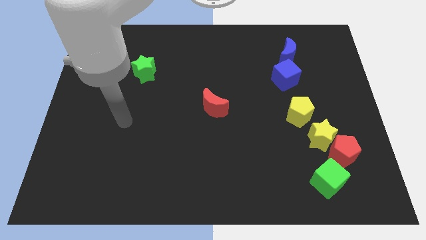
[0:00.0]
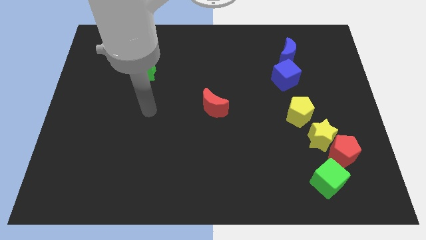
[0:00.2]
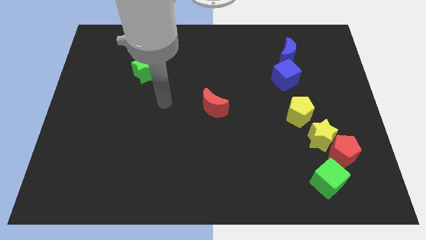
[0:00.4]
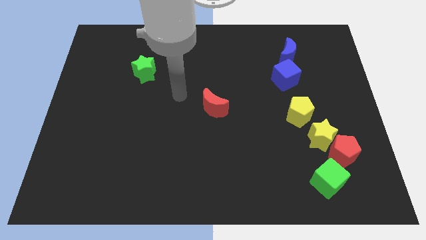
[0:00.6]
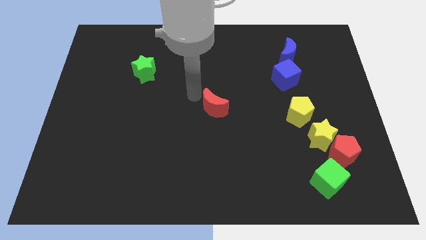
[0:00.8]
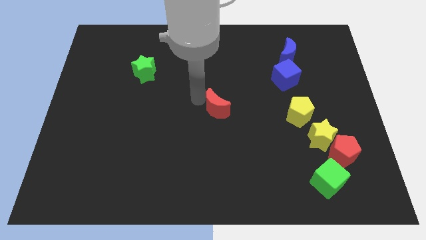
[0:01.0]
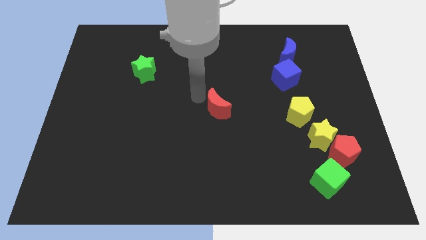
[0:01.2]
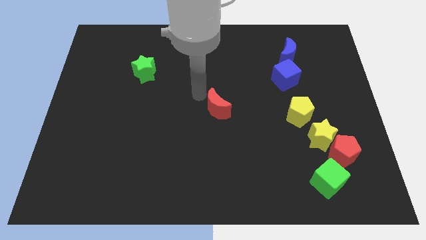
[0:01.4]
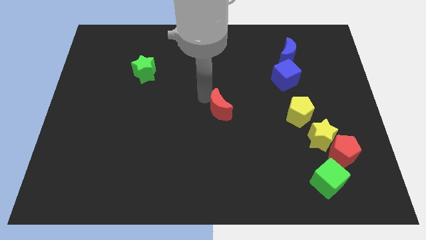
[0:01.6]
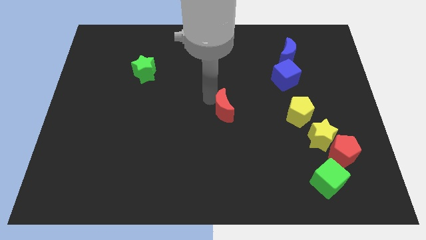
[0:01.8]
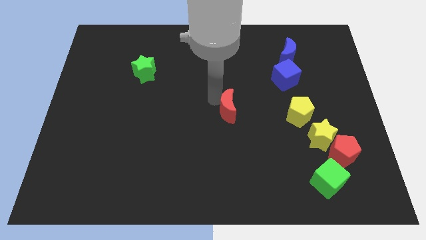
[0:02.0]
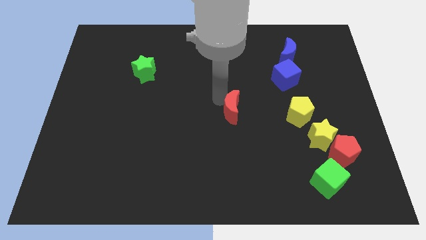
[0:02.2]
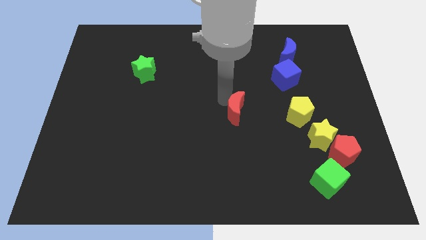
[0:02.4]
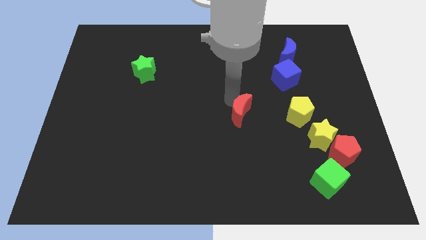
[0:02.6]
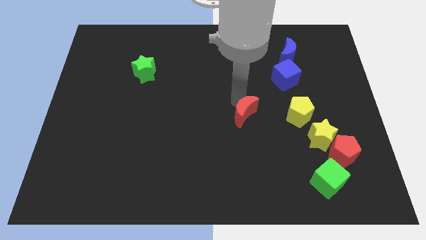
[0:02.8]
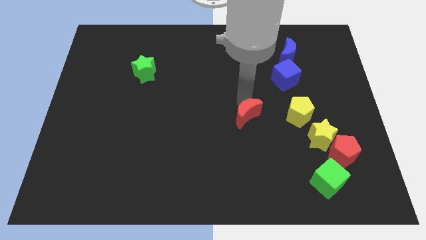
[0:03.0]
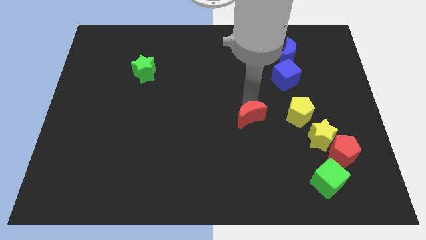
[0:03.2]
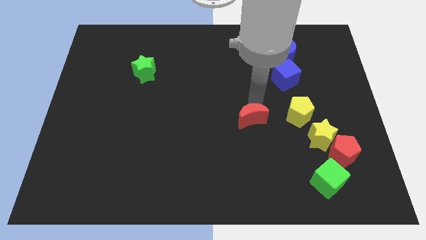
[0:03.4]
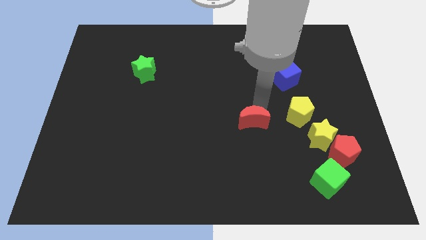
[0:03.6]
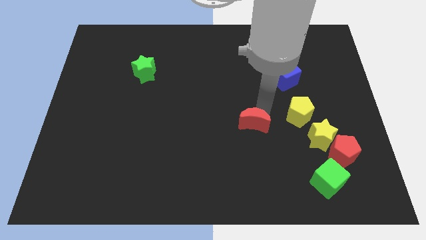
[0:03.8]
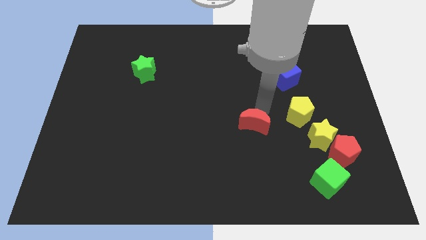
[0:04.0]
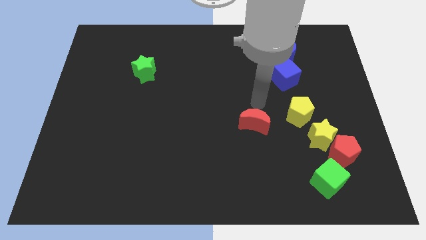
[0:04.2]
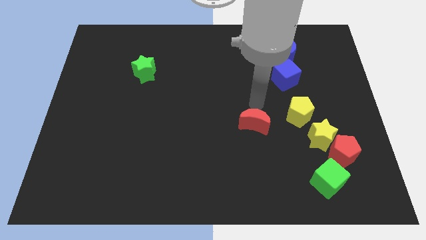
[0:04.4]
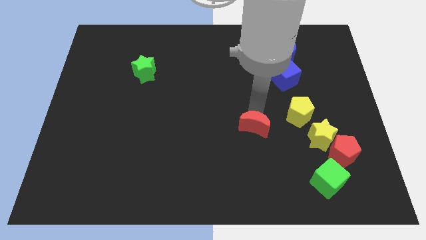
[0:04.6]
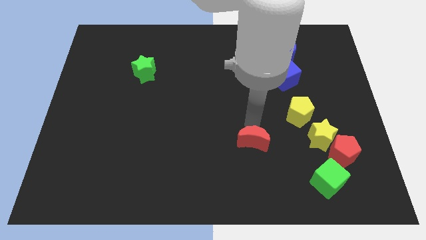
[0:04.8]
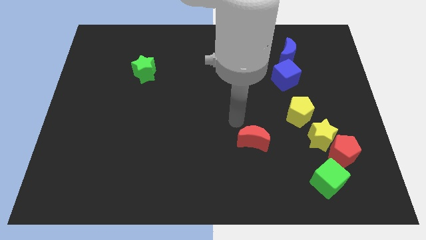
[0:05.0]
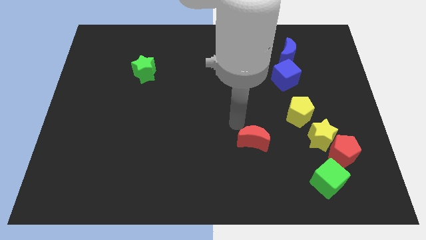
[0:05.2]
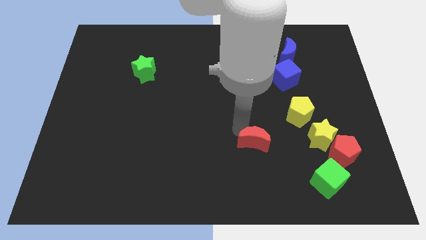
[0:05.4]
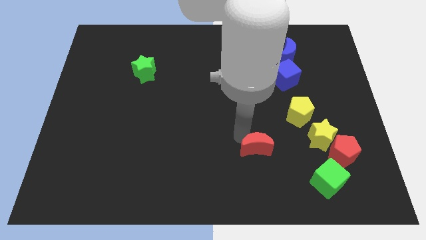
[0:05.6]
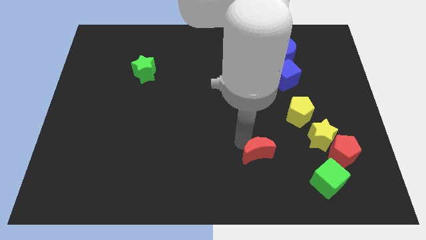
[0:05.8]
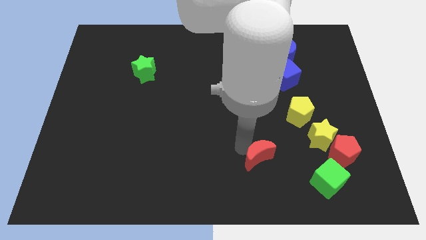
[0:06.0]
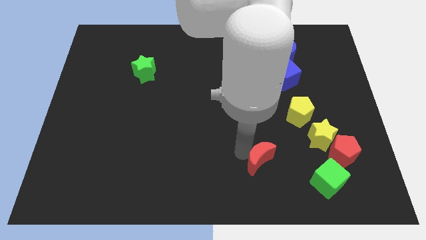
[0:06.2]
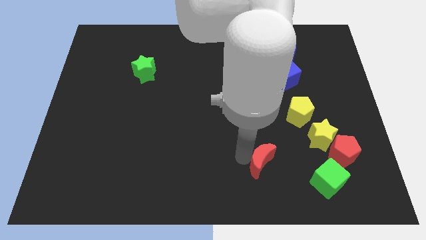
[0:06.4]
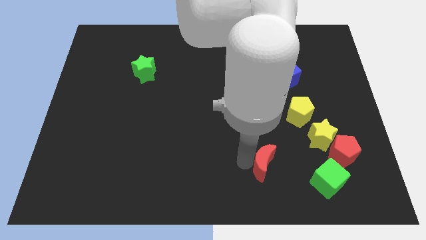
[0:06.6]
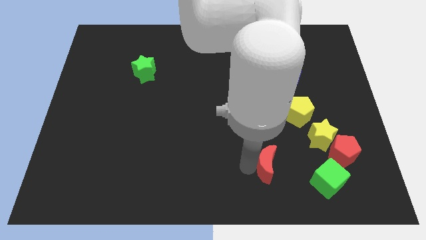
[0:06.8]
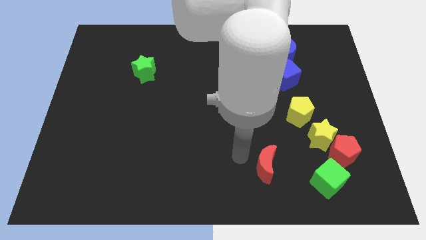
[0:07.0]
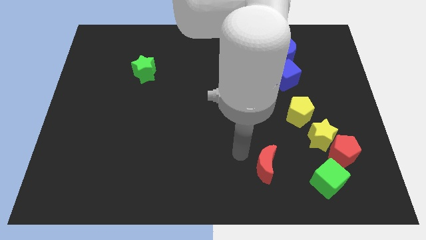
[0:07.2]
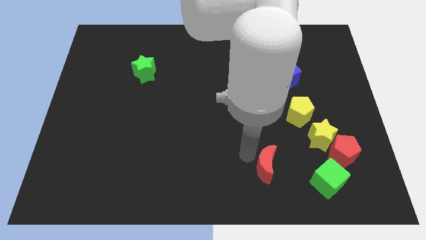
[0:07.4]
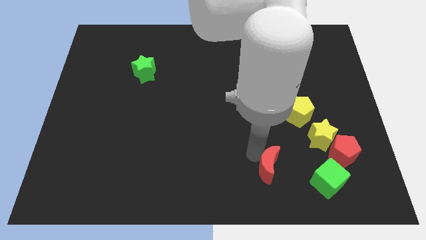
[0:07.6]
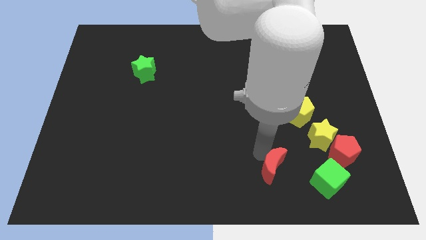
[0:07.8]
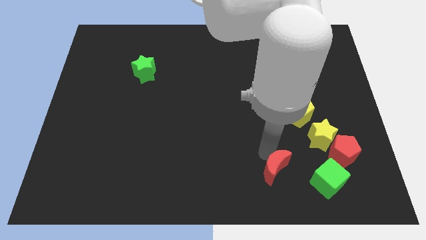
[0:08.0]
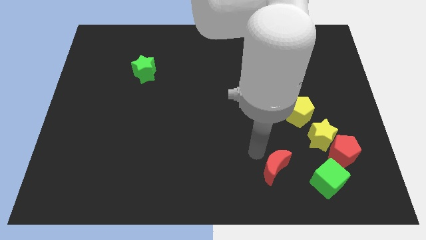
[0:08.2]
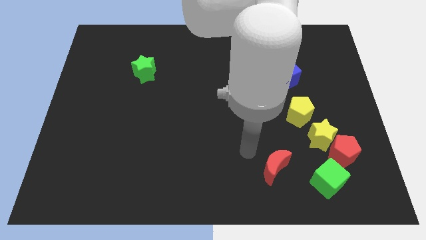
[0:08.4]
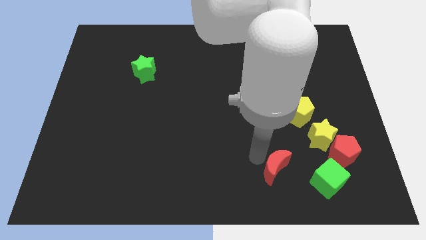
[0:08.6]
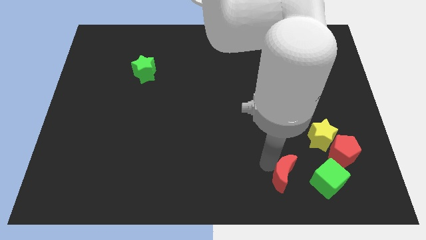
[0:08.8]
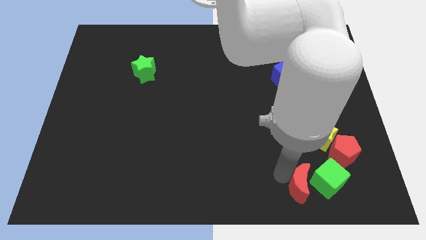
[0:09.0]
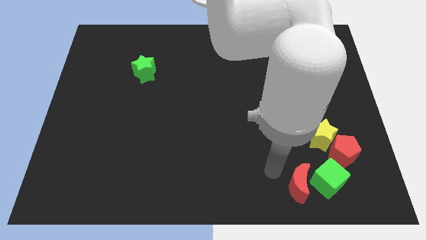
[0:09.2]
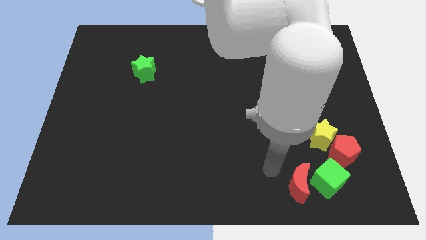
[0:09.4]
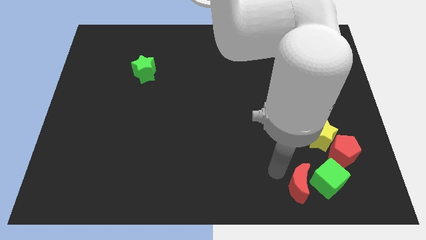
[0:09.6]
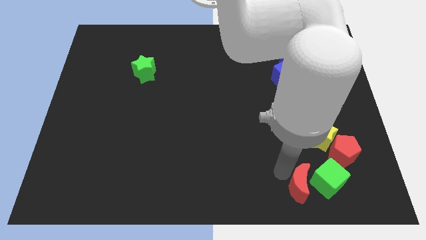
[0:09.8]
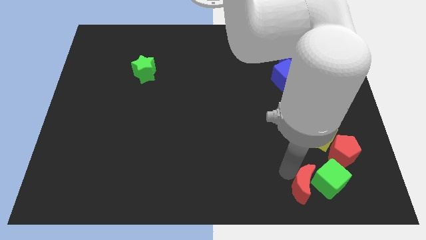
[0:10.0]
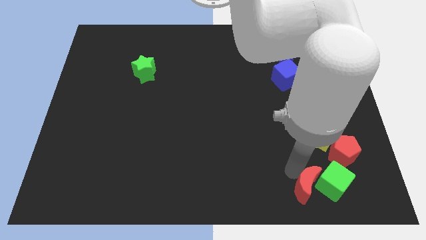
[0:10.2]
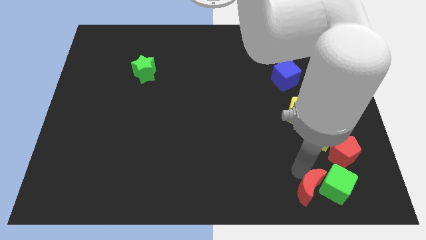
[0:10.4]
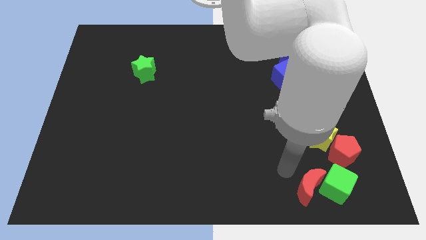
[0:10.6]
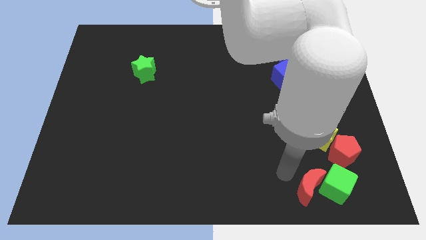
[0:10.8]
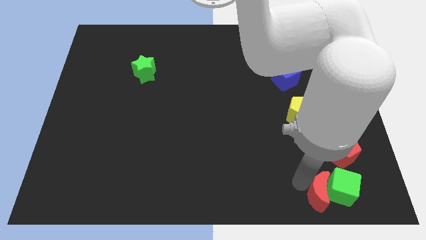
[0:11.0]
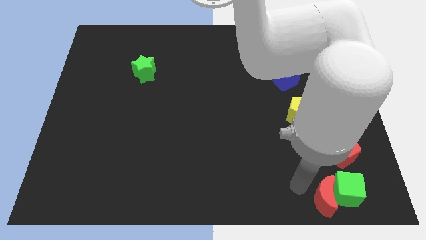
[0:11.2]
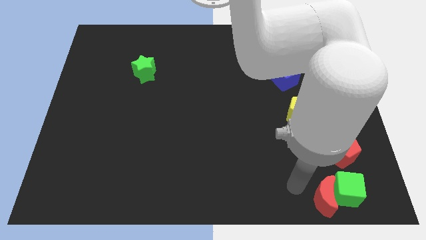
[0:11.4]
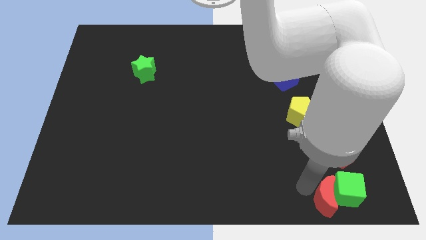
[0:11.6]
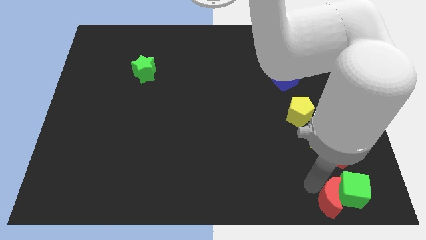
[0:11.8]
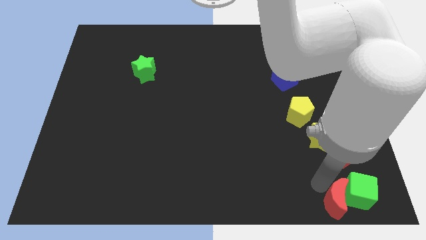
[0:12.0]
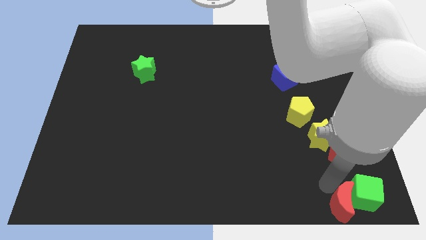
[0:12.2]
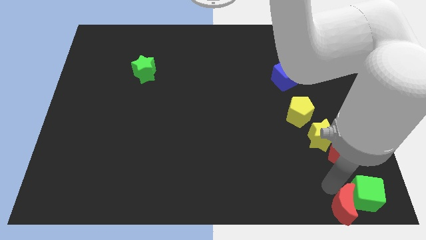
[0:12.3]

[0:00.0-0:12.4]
move the red moon to the bottom right corner

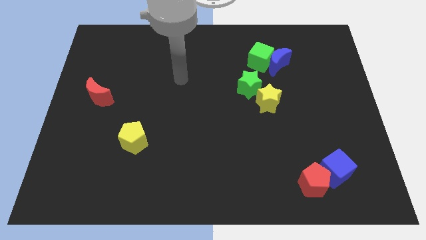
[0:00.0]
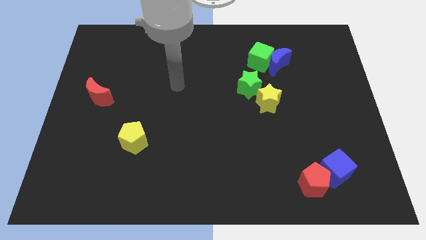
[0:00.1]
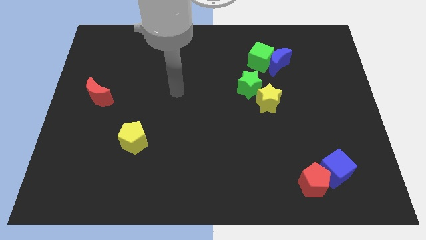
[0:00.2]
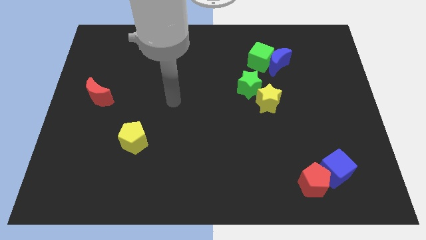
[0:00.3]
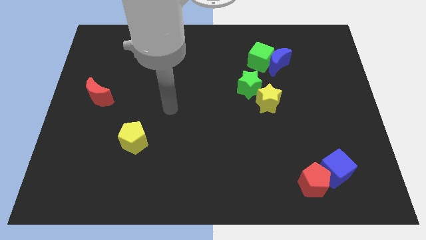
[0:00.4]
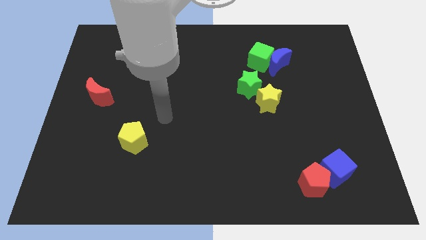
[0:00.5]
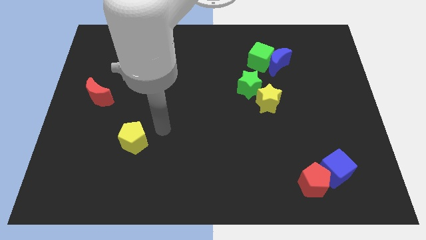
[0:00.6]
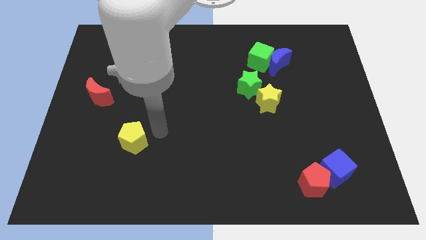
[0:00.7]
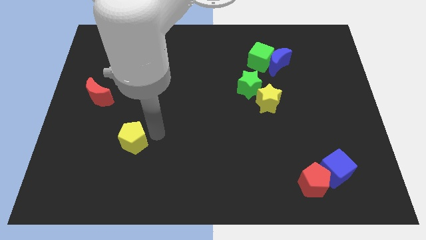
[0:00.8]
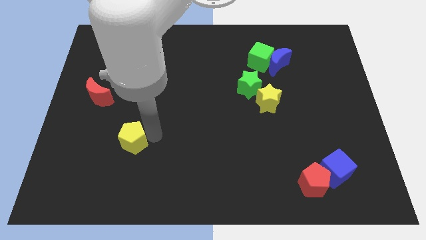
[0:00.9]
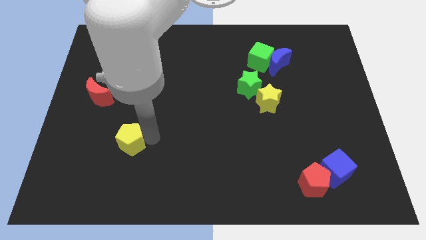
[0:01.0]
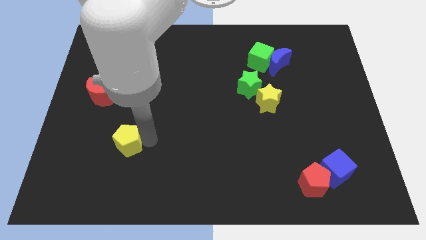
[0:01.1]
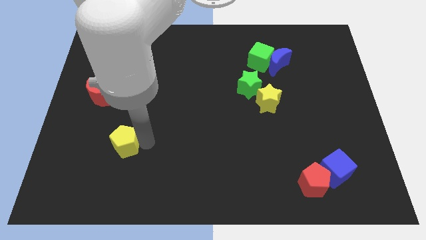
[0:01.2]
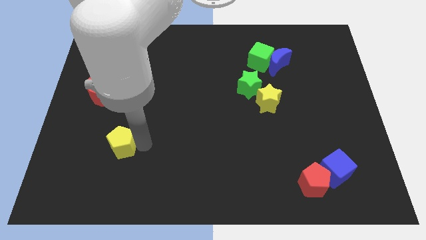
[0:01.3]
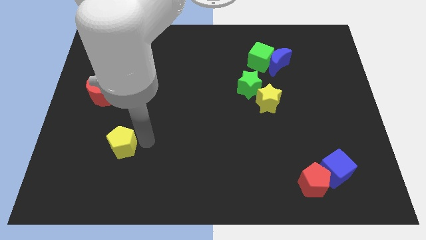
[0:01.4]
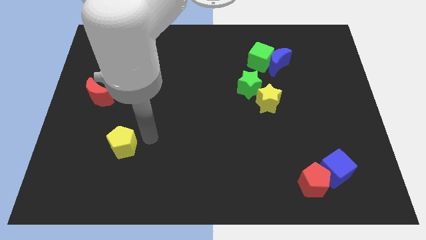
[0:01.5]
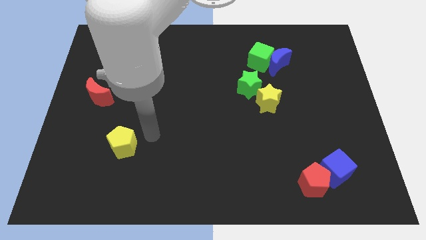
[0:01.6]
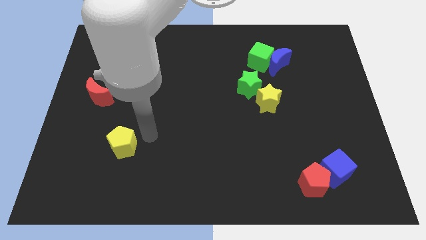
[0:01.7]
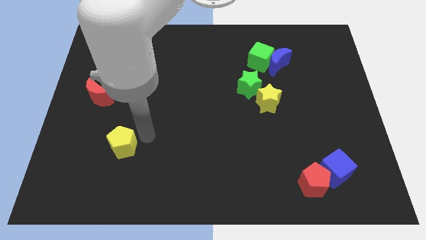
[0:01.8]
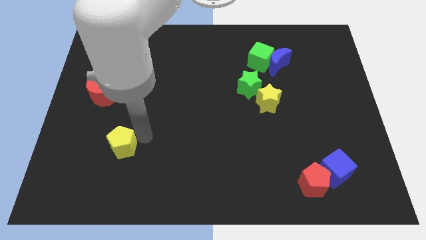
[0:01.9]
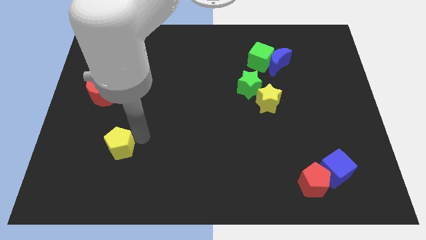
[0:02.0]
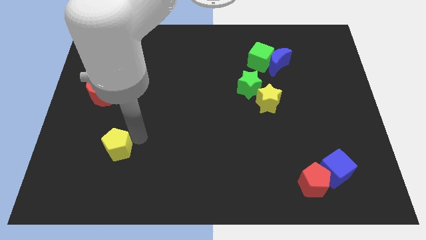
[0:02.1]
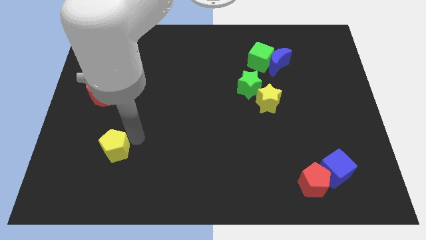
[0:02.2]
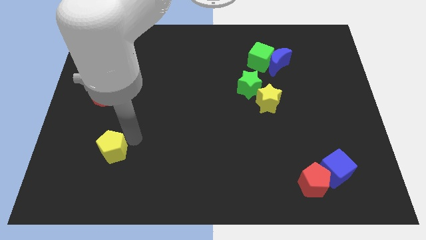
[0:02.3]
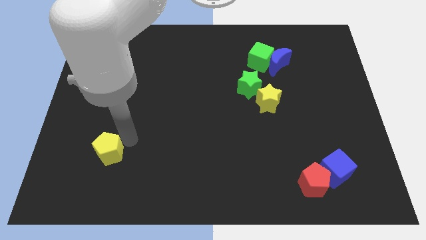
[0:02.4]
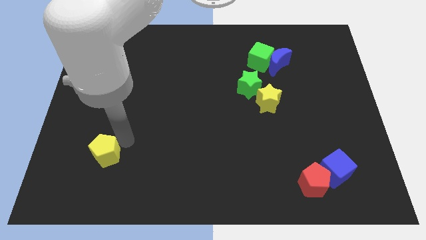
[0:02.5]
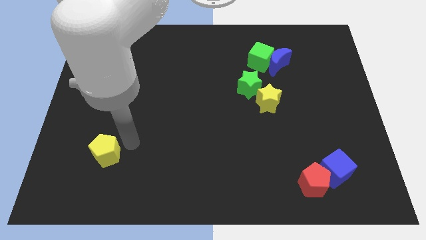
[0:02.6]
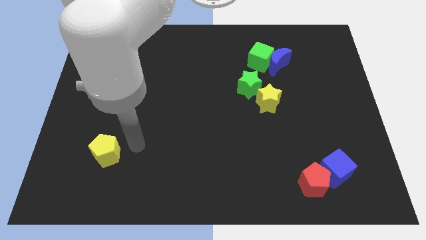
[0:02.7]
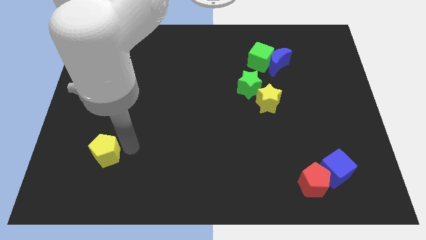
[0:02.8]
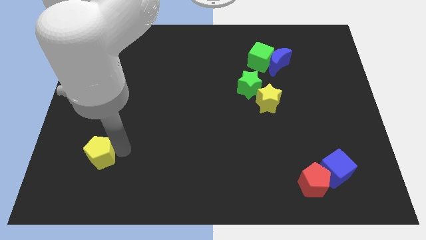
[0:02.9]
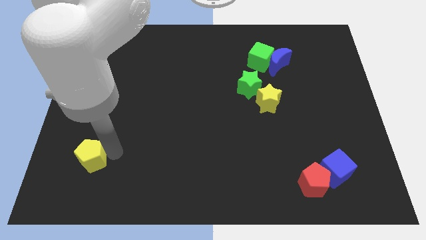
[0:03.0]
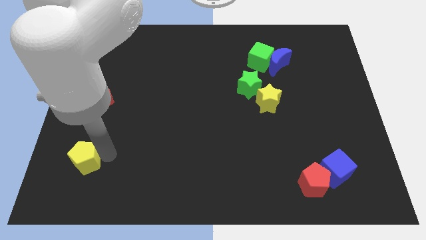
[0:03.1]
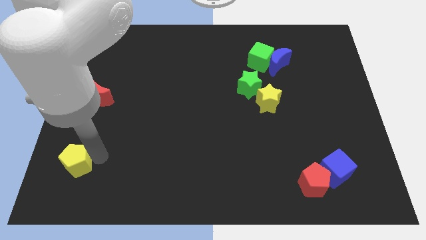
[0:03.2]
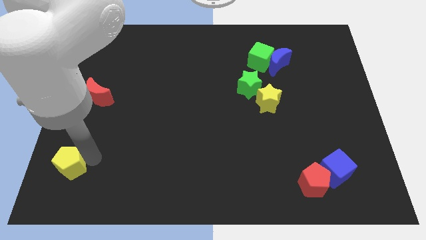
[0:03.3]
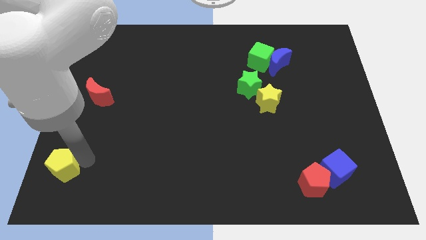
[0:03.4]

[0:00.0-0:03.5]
put the yellow pentagon to the bottom left of the board
